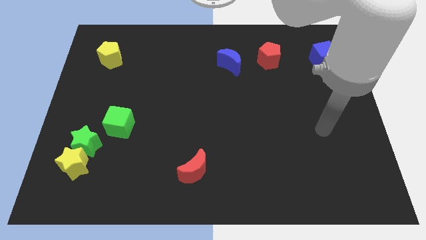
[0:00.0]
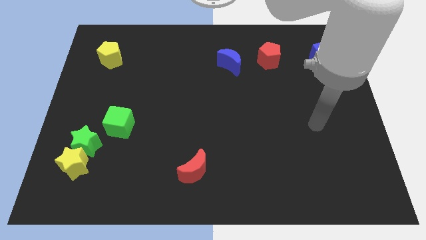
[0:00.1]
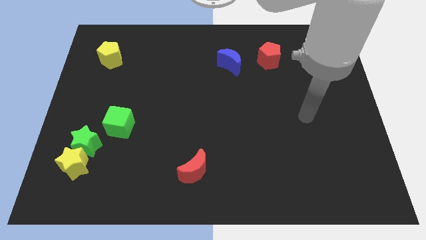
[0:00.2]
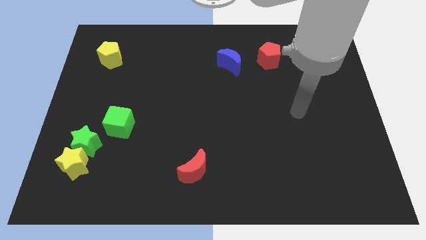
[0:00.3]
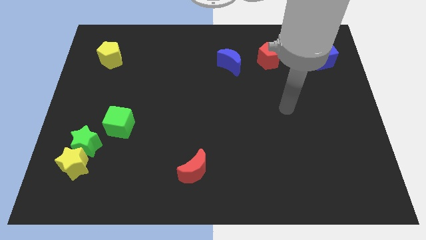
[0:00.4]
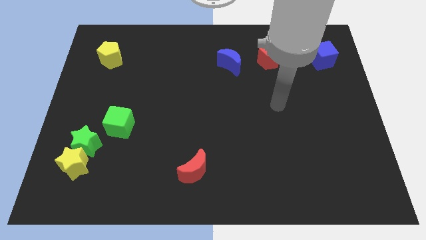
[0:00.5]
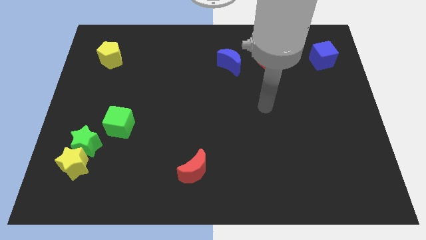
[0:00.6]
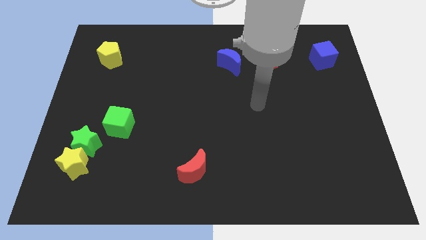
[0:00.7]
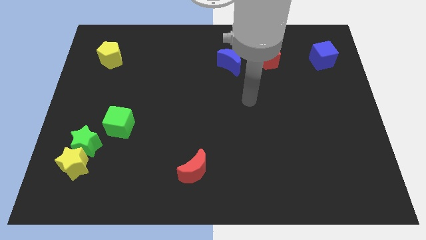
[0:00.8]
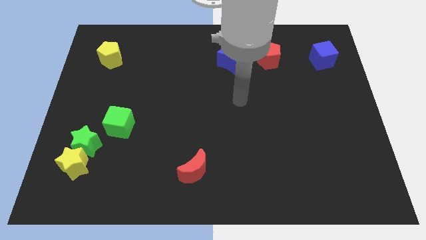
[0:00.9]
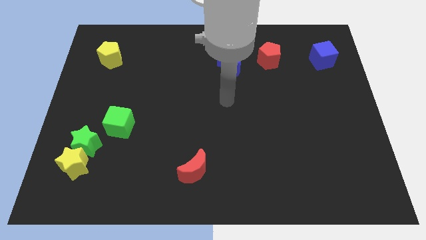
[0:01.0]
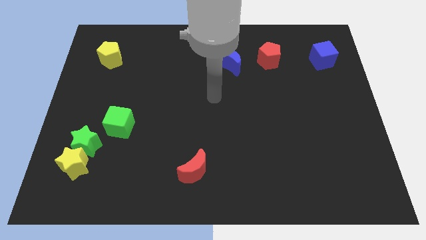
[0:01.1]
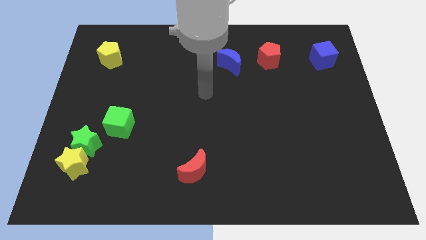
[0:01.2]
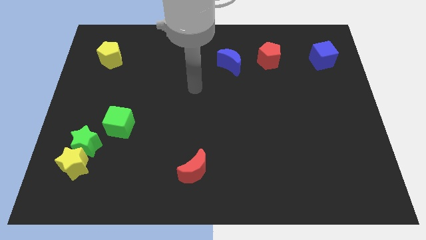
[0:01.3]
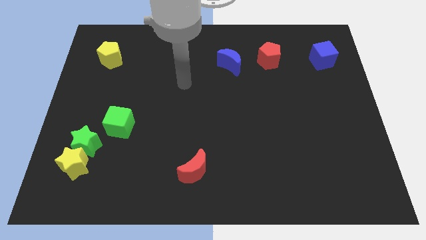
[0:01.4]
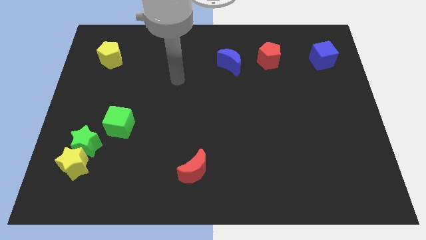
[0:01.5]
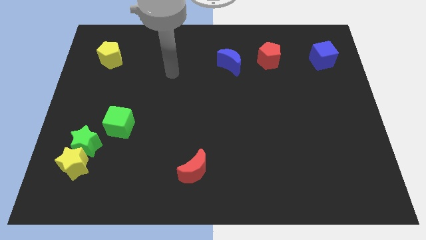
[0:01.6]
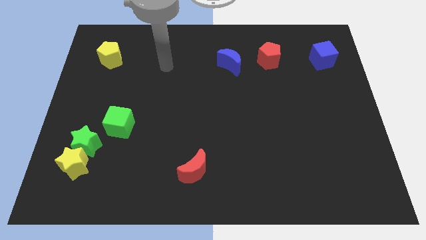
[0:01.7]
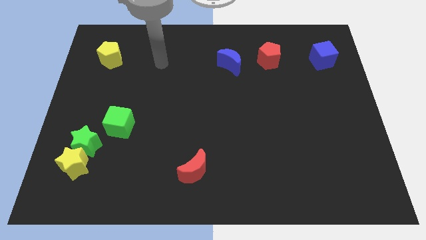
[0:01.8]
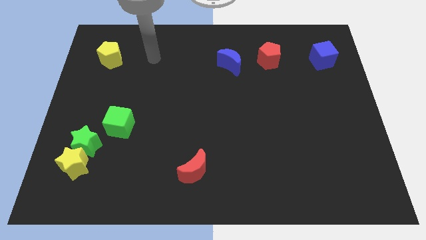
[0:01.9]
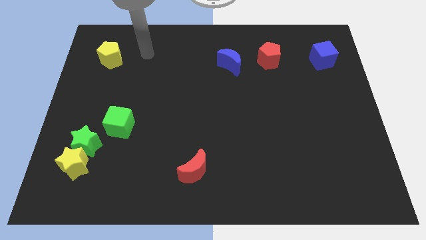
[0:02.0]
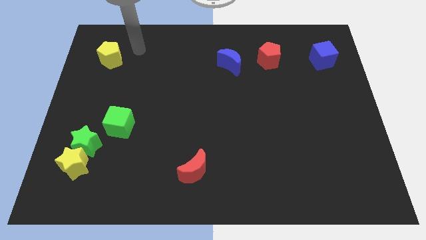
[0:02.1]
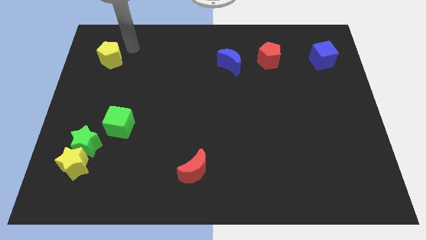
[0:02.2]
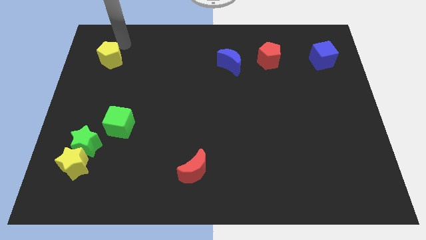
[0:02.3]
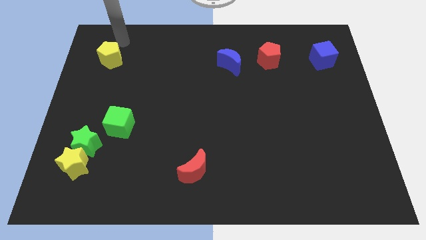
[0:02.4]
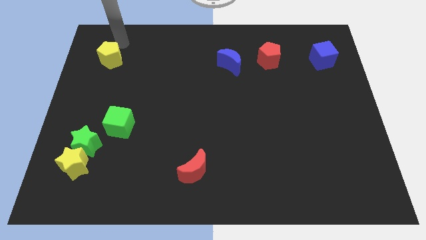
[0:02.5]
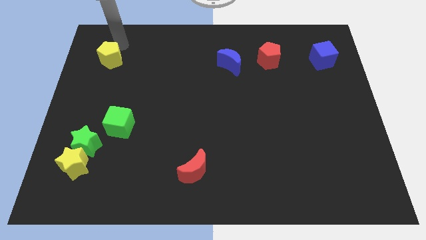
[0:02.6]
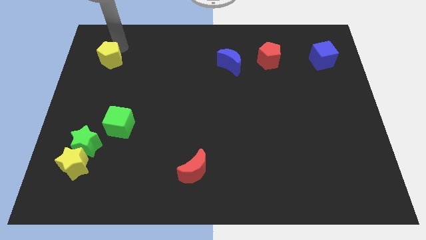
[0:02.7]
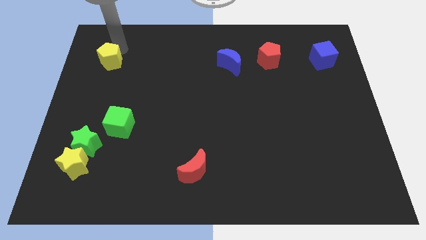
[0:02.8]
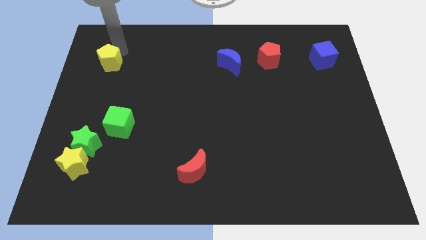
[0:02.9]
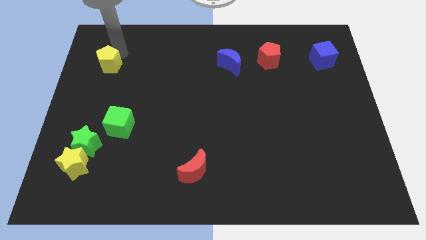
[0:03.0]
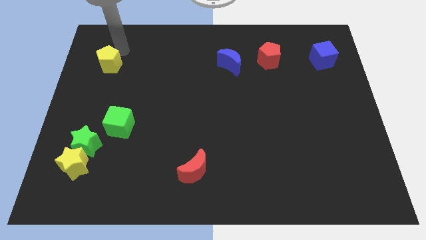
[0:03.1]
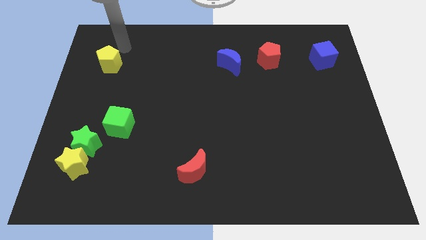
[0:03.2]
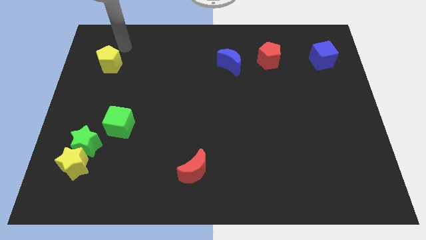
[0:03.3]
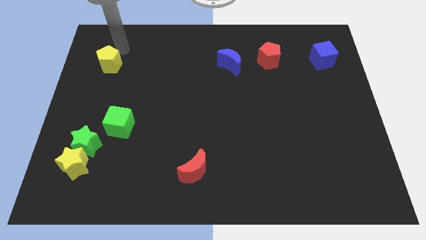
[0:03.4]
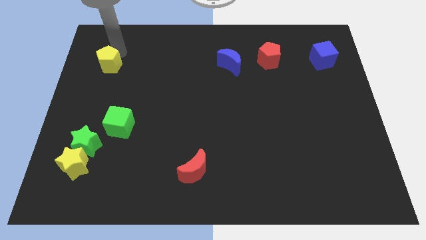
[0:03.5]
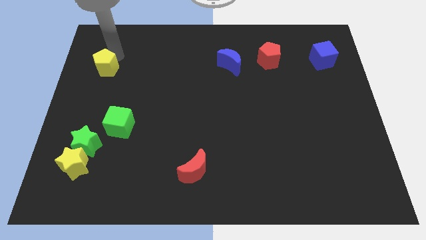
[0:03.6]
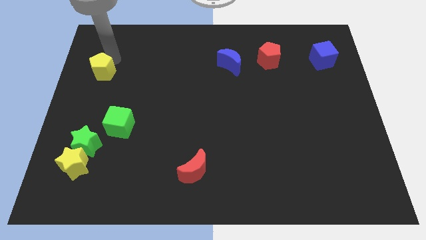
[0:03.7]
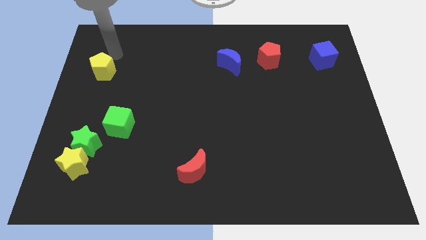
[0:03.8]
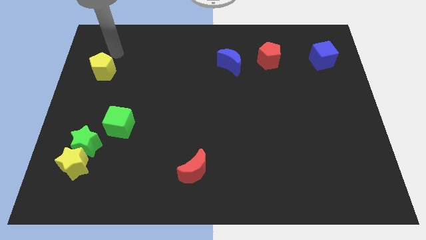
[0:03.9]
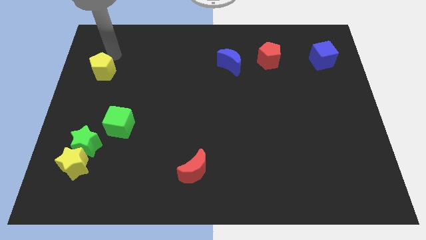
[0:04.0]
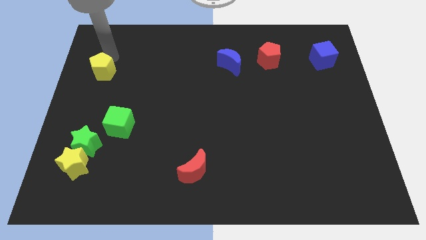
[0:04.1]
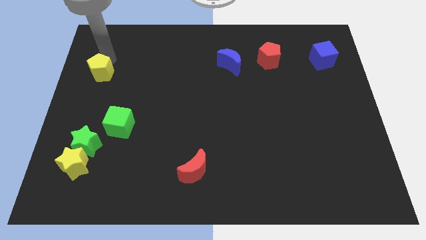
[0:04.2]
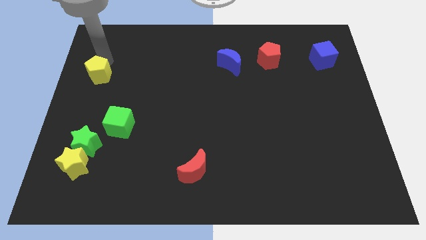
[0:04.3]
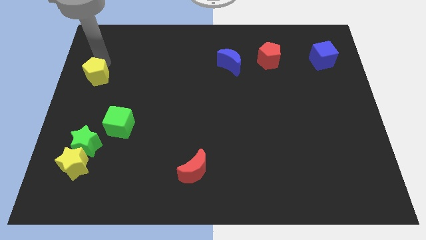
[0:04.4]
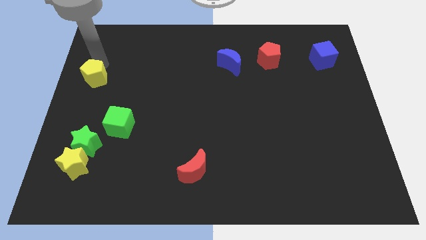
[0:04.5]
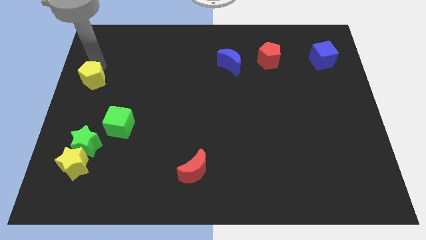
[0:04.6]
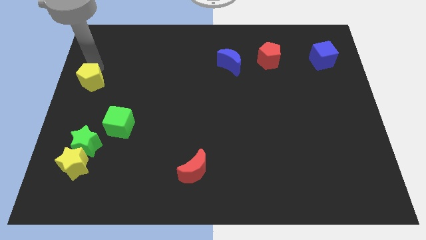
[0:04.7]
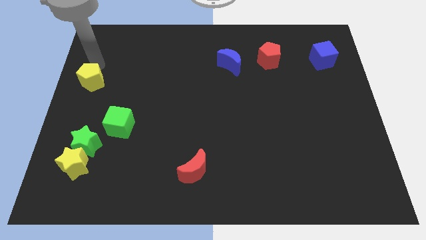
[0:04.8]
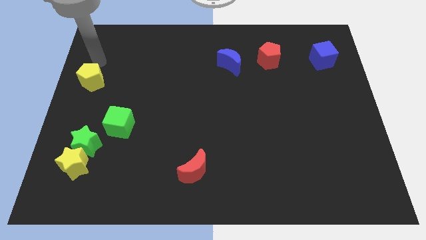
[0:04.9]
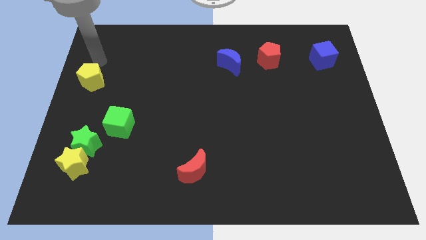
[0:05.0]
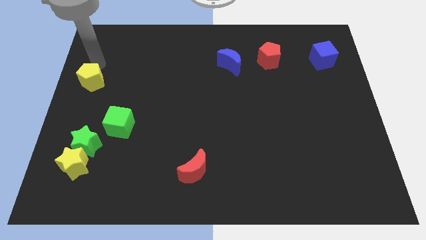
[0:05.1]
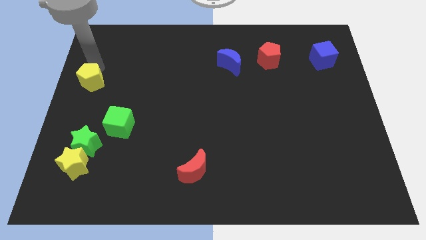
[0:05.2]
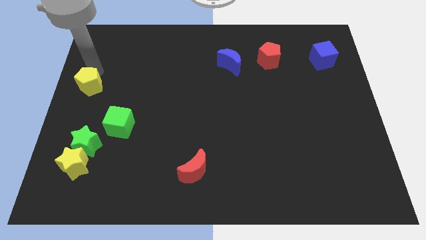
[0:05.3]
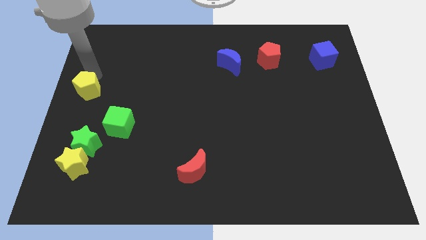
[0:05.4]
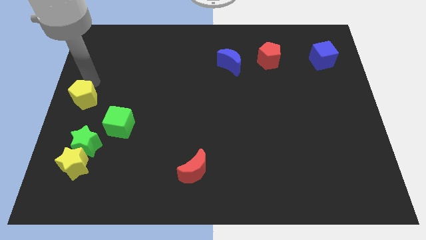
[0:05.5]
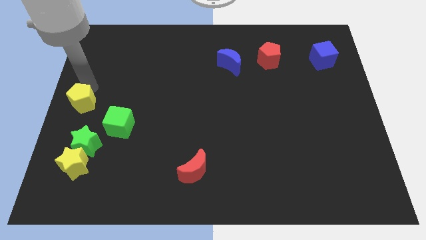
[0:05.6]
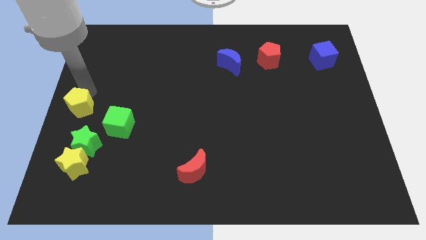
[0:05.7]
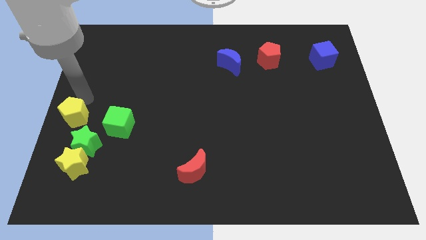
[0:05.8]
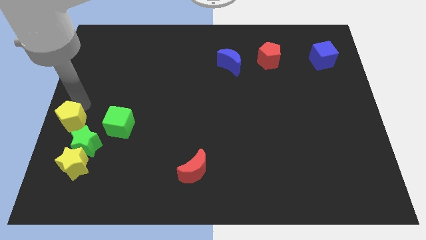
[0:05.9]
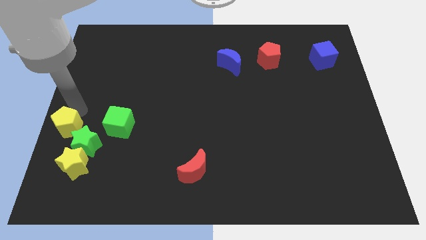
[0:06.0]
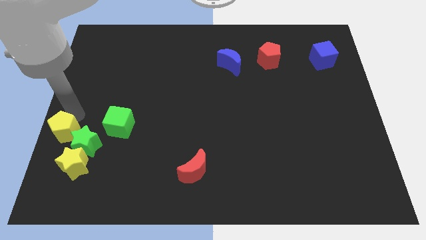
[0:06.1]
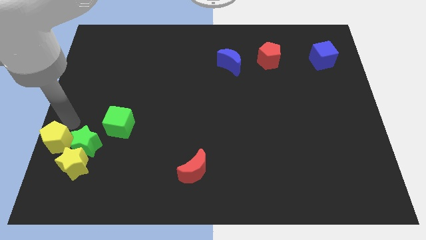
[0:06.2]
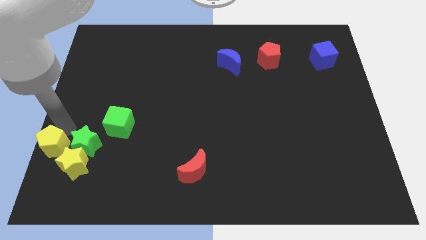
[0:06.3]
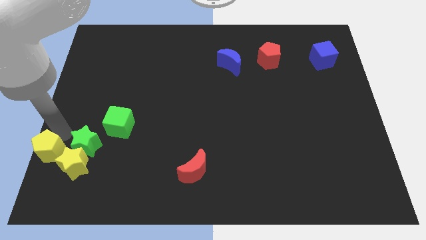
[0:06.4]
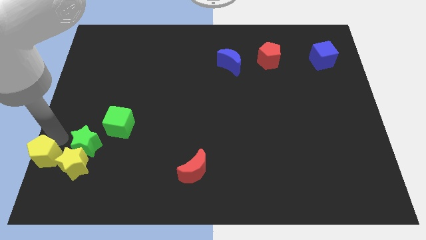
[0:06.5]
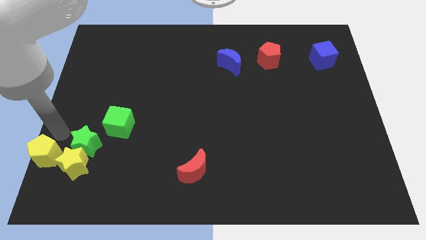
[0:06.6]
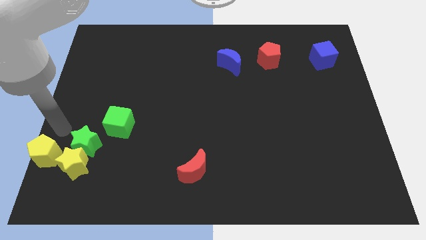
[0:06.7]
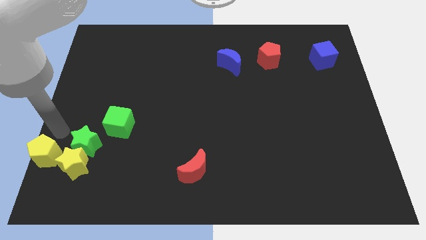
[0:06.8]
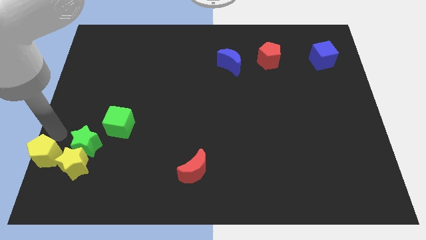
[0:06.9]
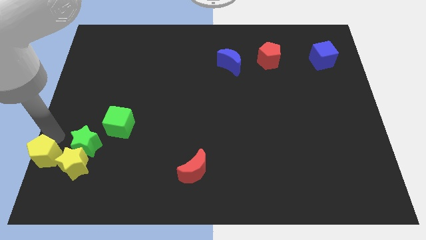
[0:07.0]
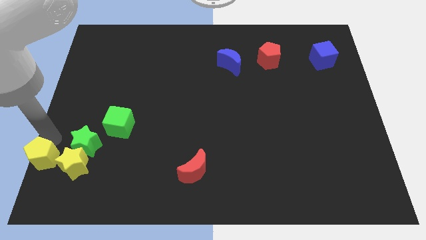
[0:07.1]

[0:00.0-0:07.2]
push the yellow pentagon to the lower left corner

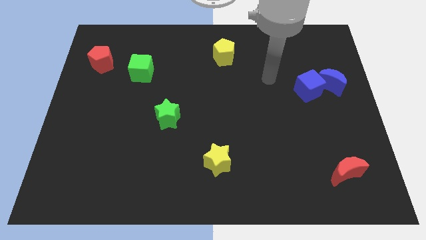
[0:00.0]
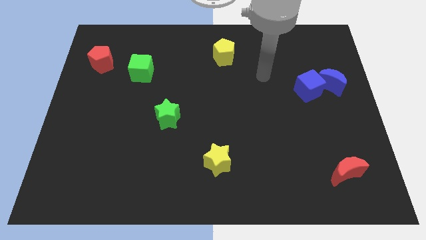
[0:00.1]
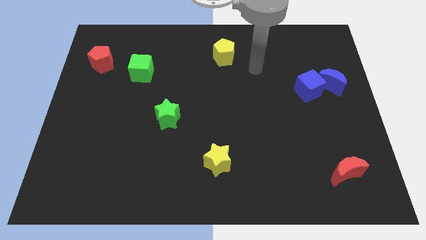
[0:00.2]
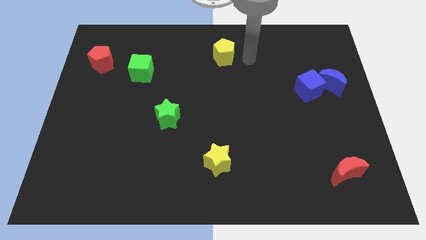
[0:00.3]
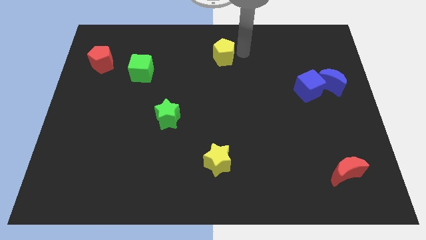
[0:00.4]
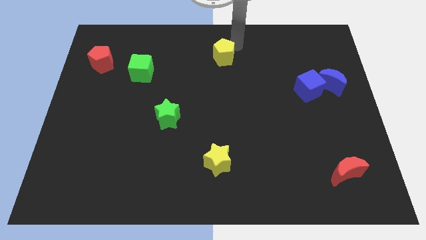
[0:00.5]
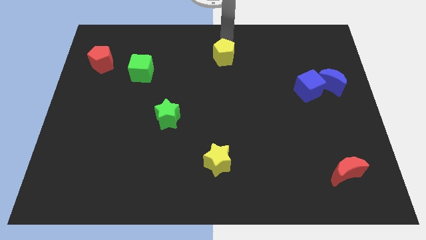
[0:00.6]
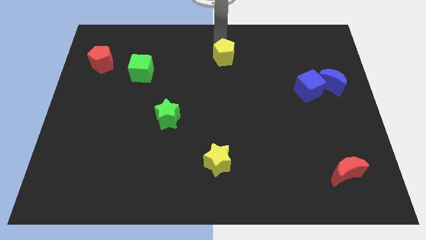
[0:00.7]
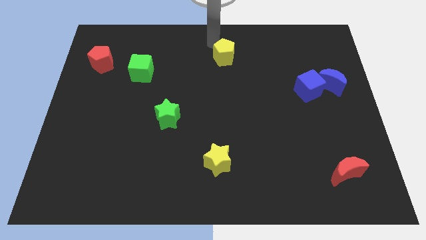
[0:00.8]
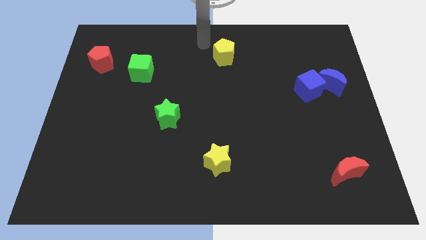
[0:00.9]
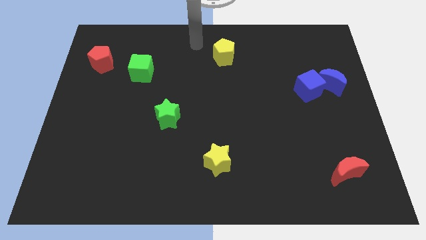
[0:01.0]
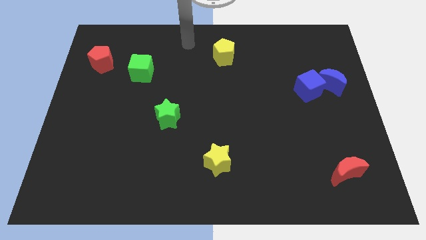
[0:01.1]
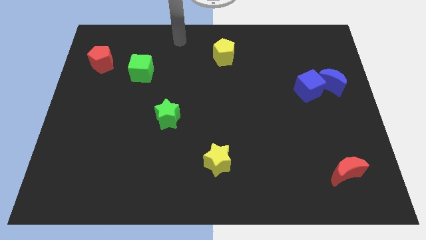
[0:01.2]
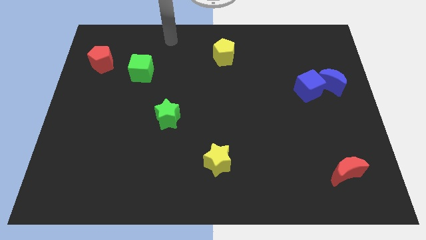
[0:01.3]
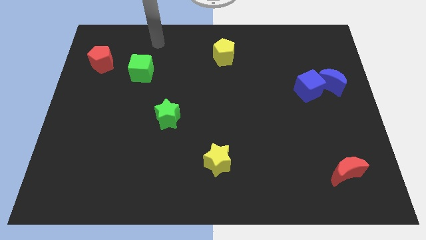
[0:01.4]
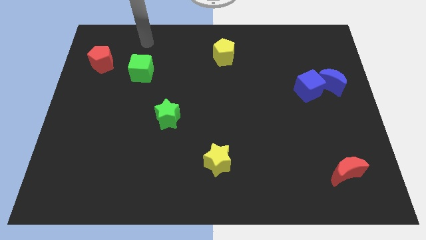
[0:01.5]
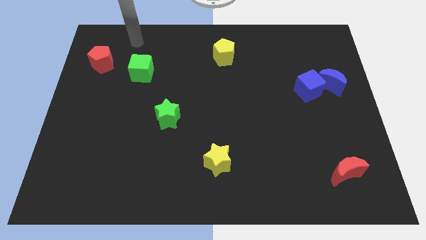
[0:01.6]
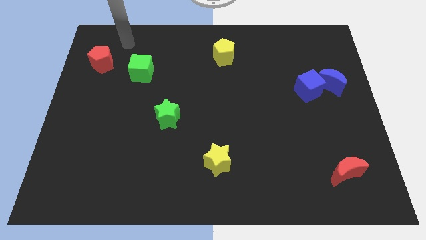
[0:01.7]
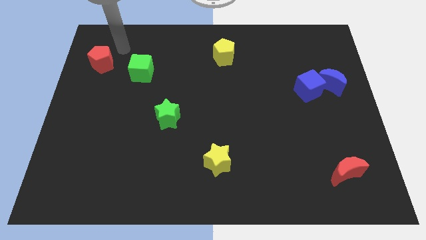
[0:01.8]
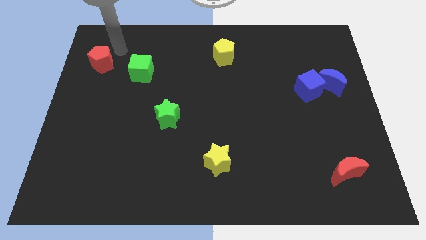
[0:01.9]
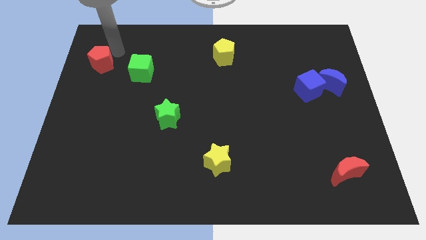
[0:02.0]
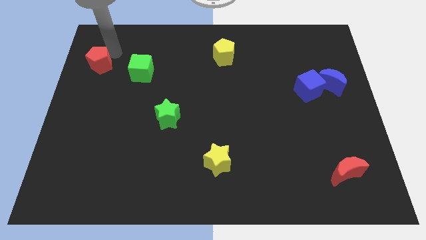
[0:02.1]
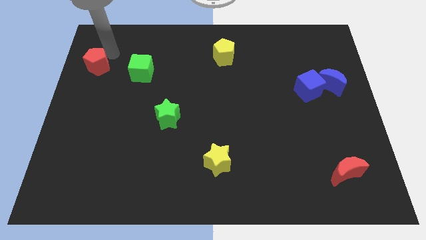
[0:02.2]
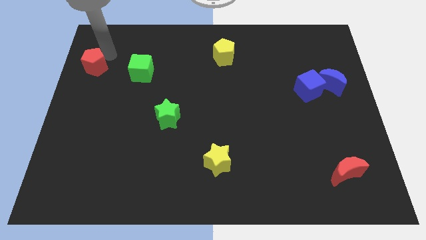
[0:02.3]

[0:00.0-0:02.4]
slide the red pentagon to the left side
